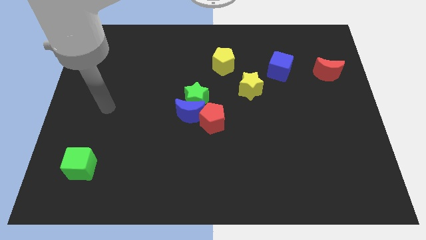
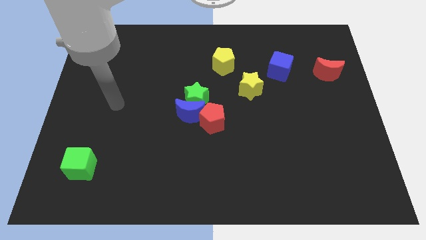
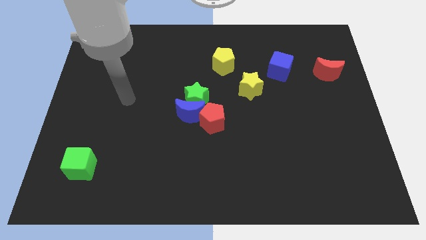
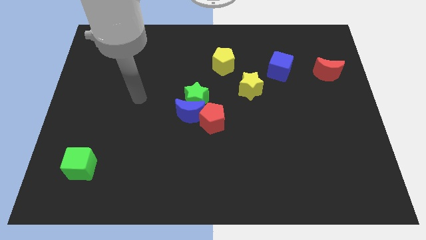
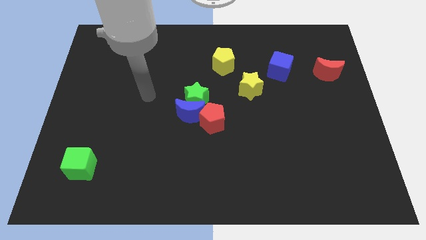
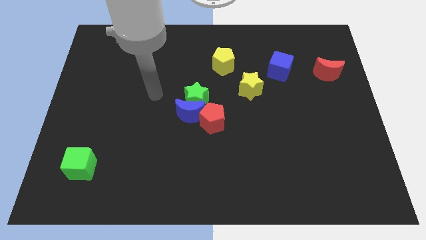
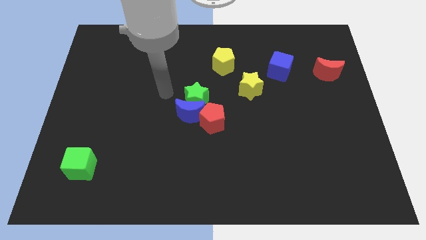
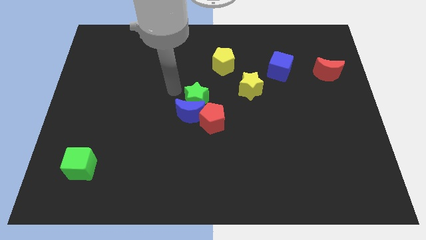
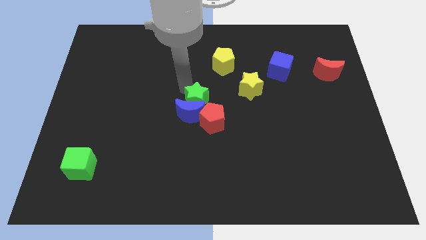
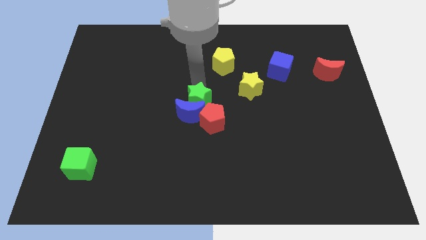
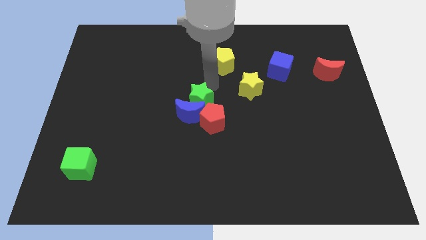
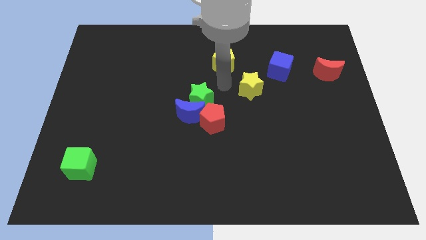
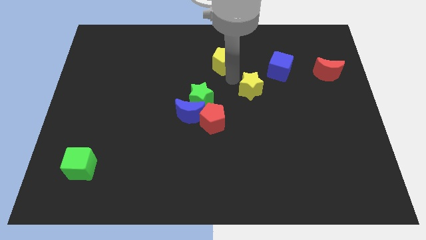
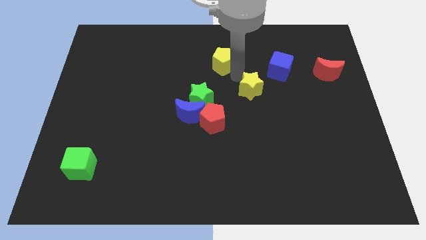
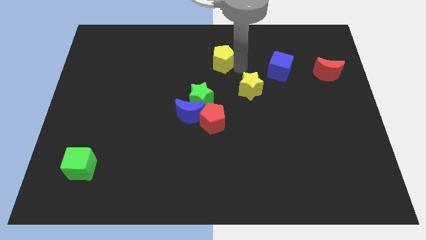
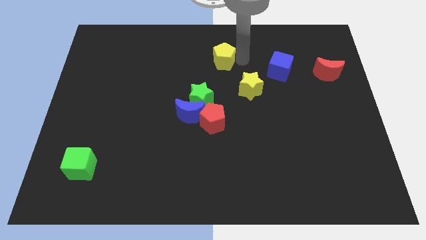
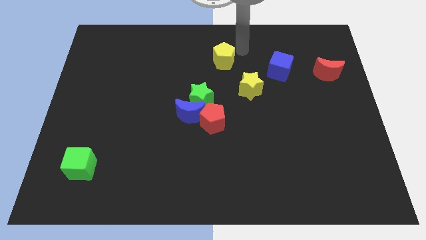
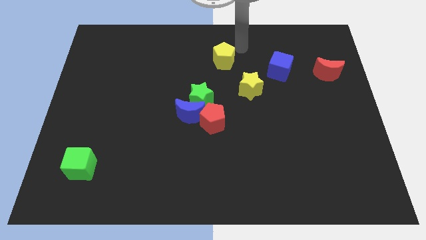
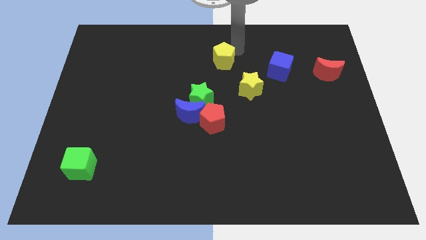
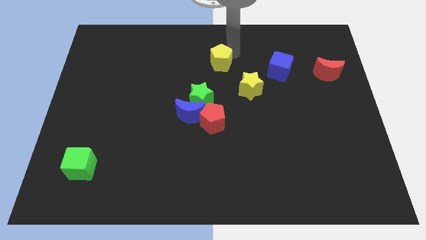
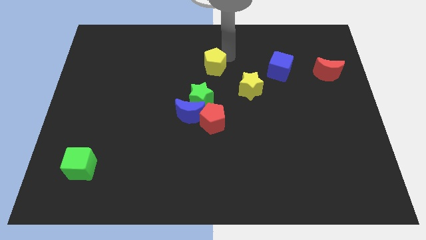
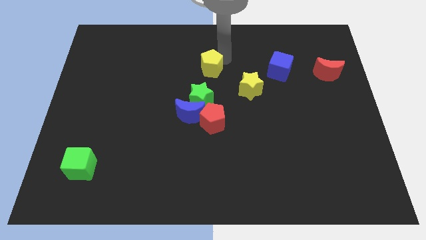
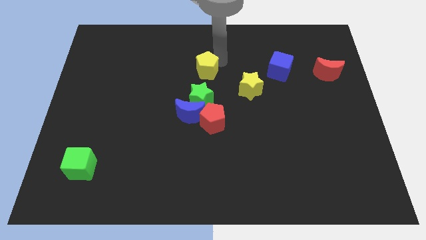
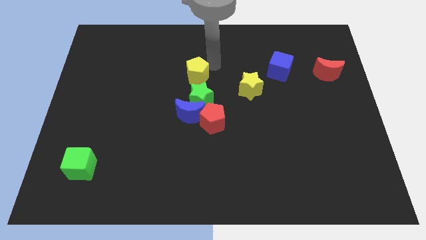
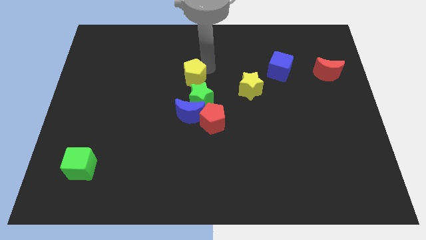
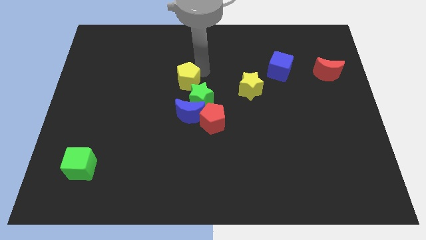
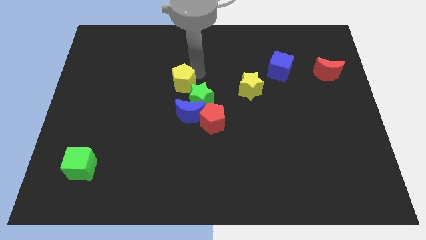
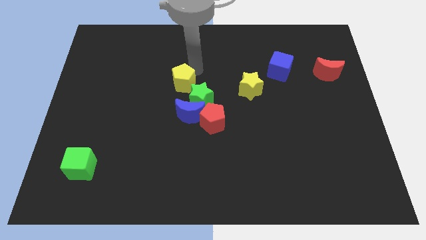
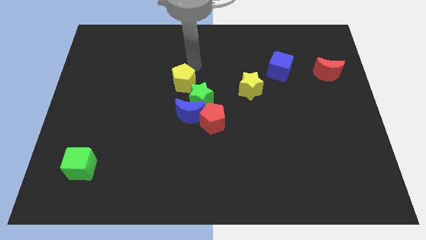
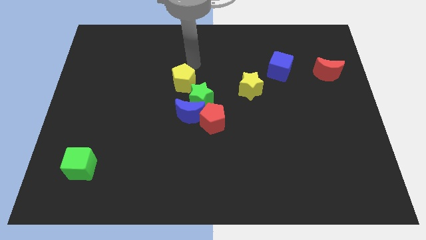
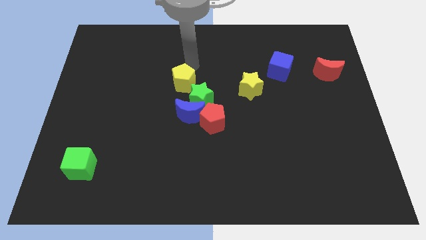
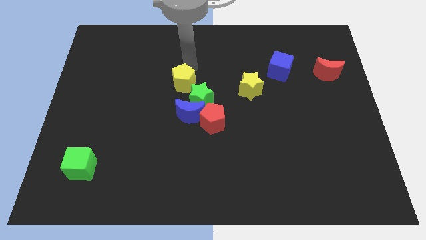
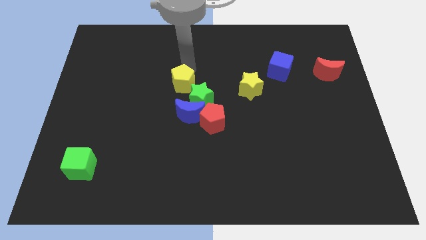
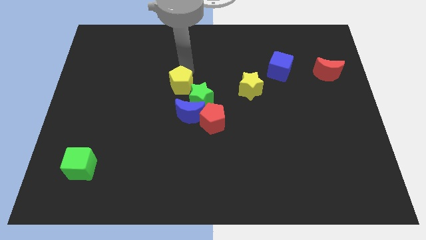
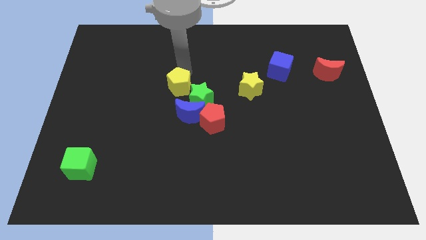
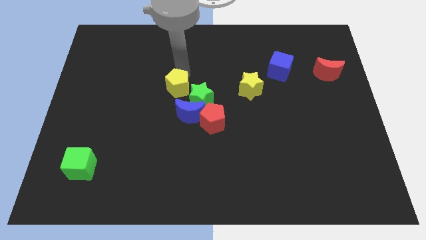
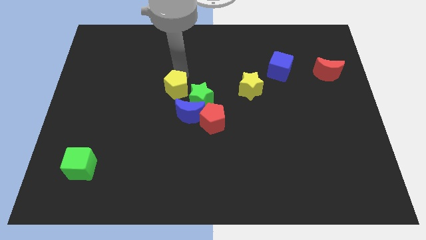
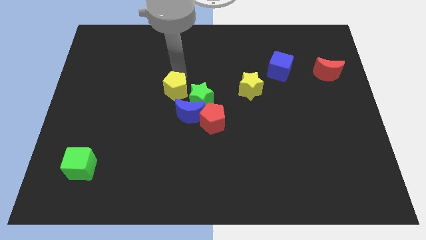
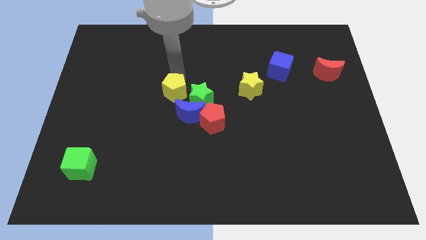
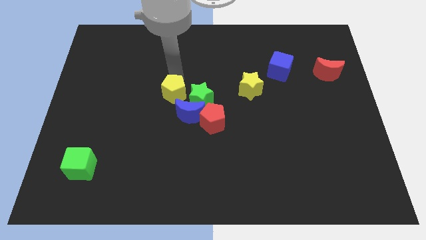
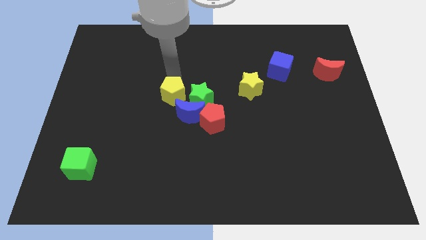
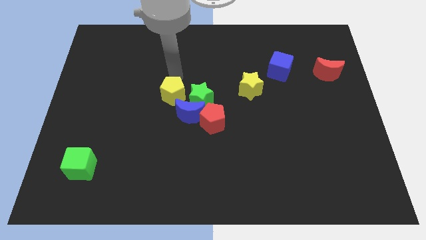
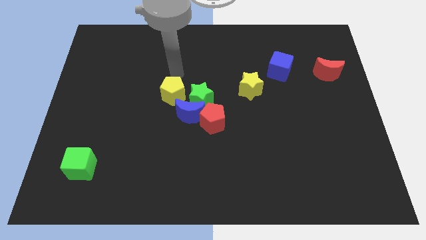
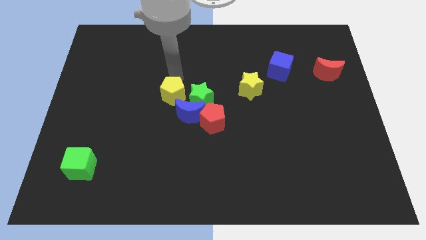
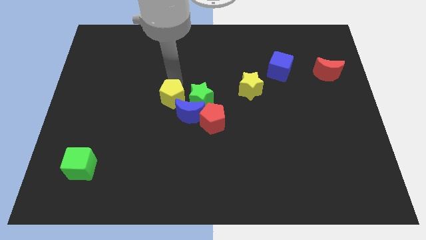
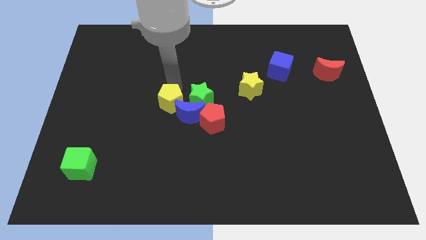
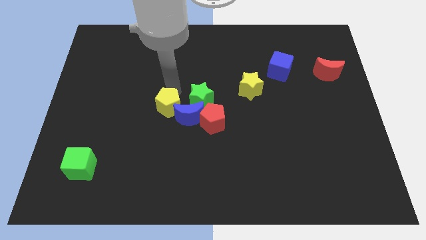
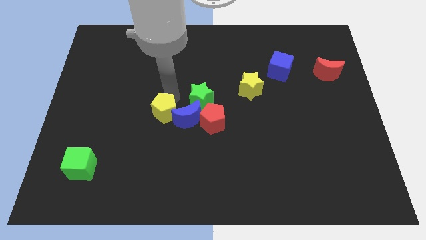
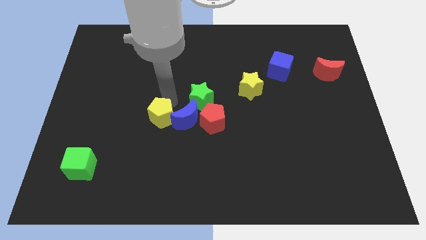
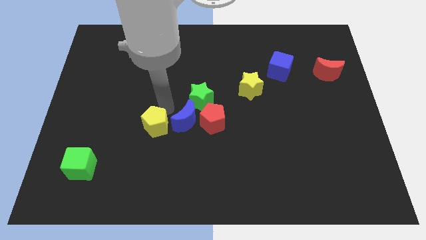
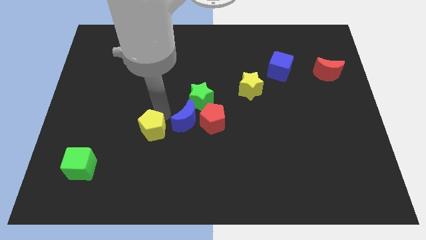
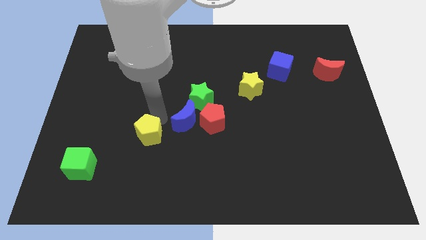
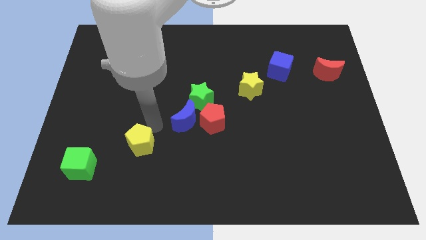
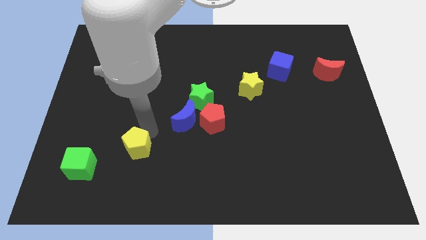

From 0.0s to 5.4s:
move the yellow pentagon just right of the green cube

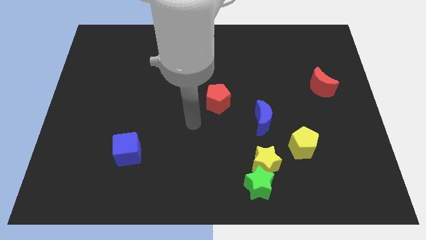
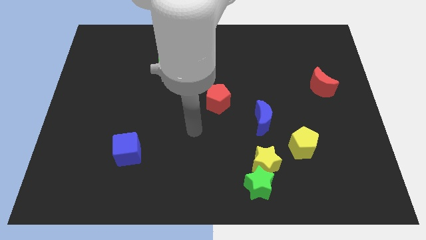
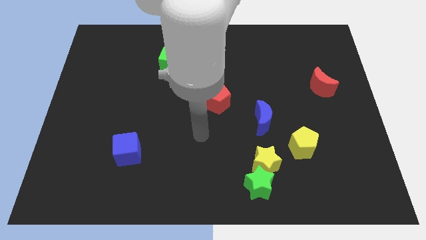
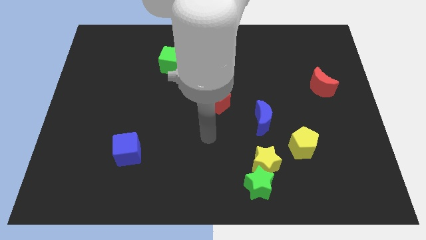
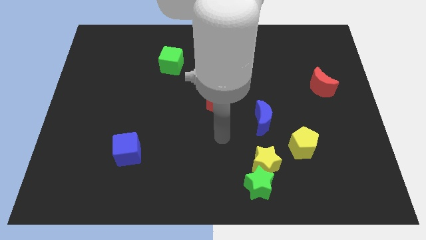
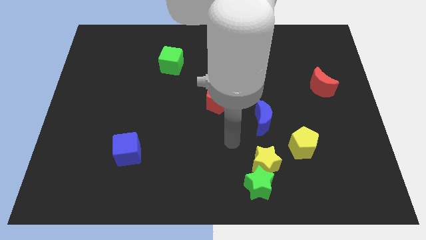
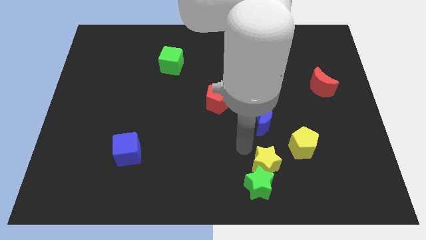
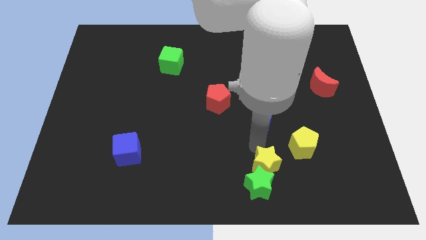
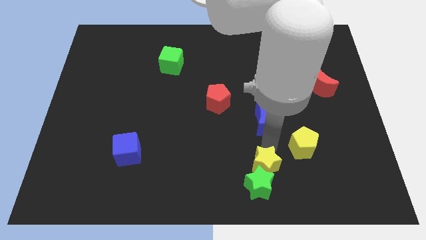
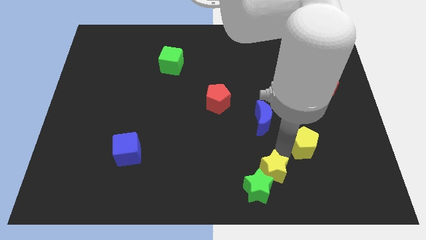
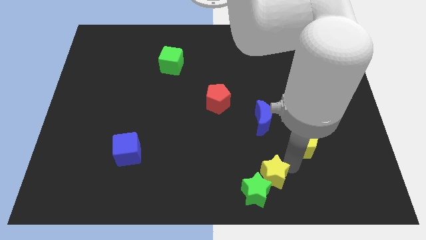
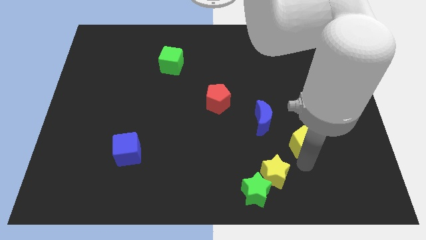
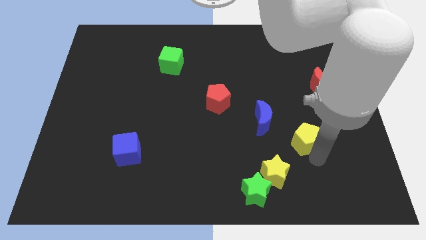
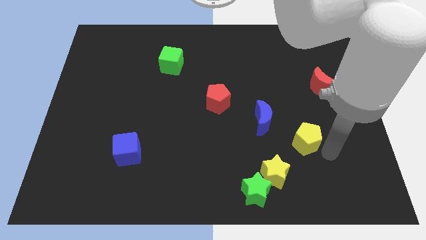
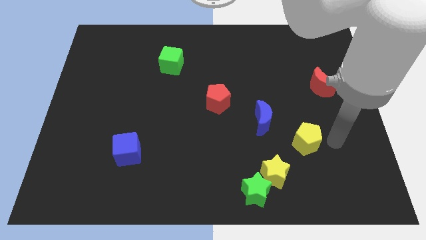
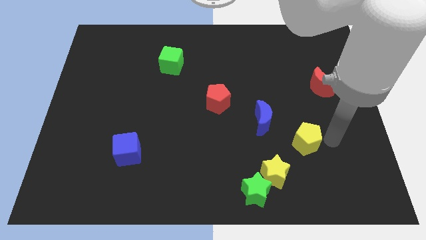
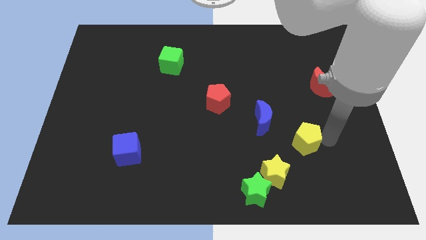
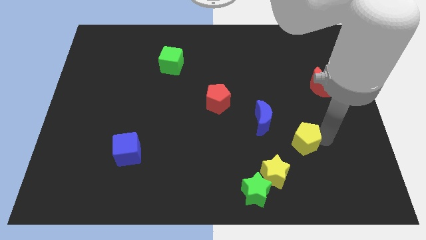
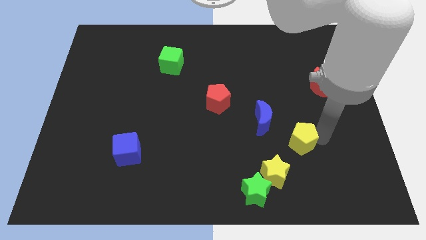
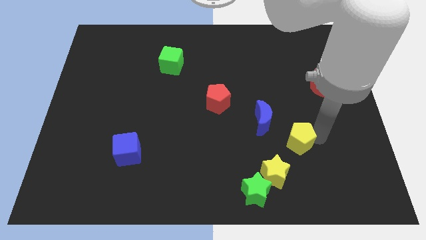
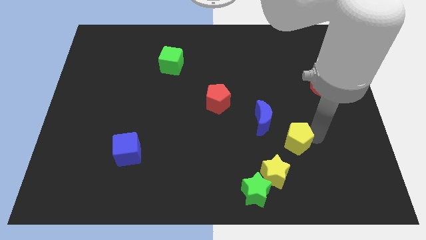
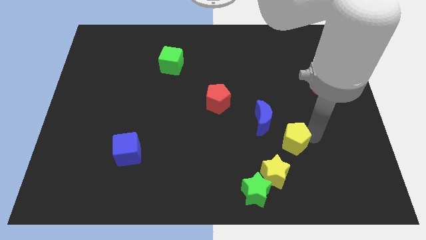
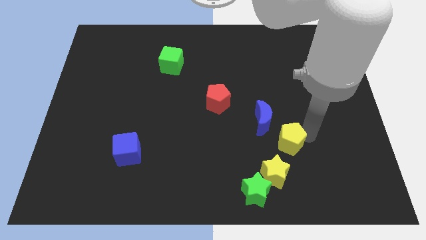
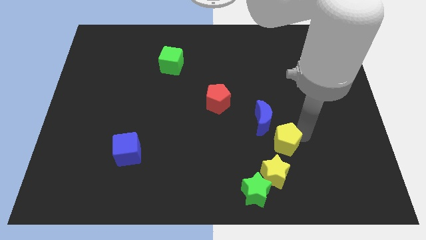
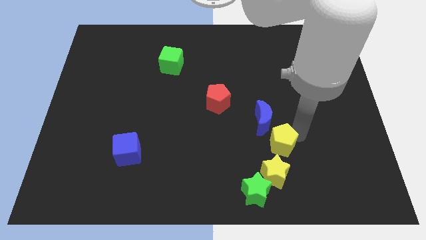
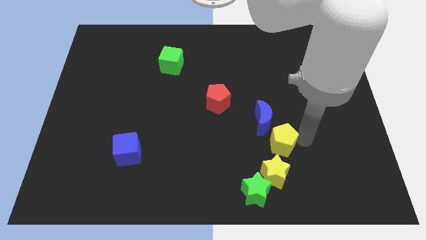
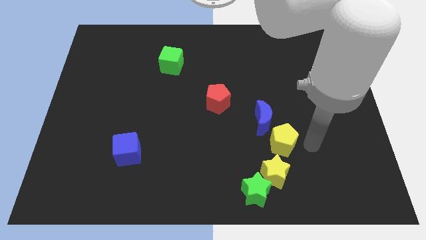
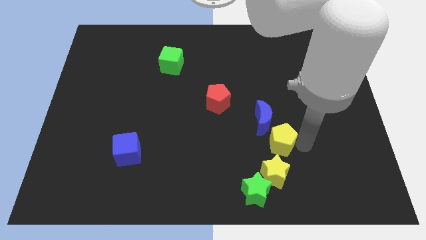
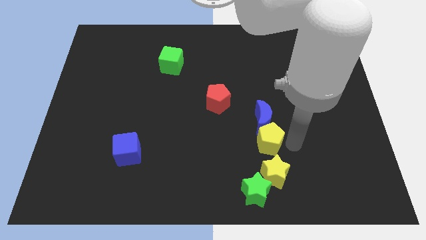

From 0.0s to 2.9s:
put the yellow pentagon diagonally down and to the left of the blue moon
